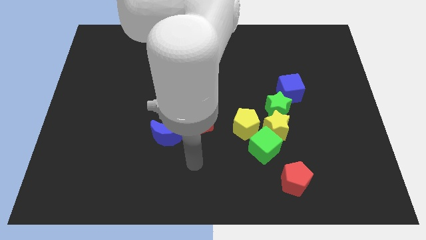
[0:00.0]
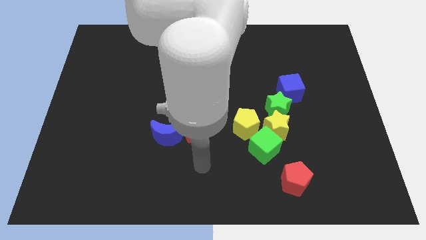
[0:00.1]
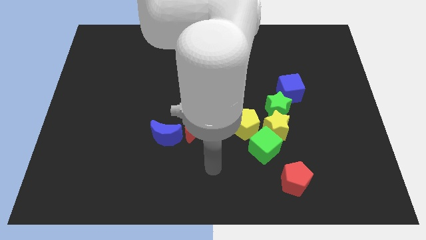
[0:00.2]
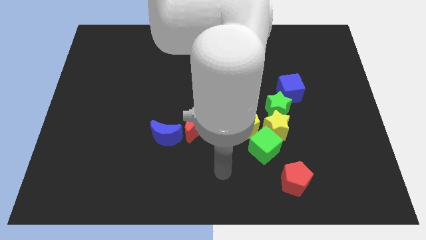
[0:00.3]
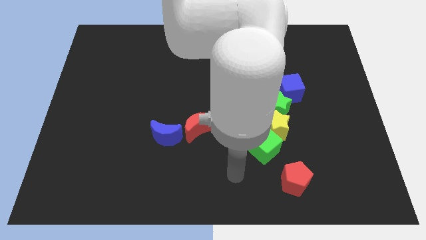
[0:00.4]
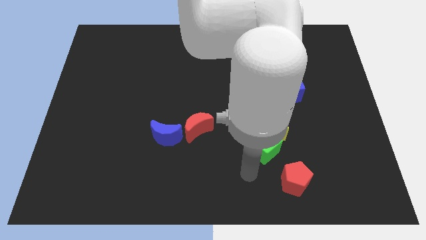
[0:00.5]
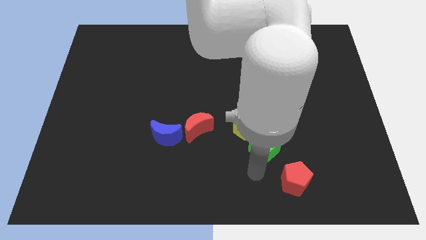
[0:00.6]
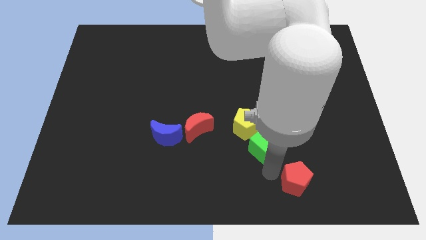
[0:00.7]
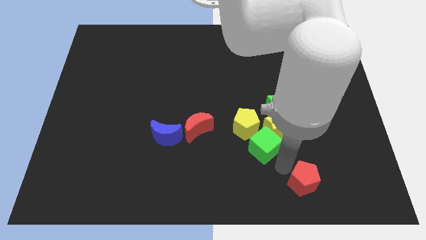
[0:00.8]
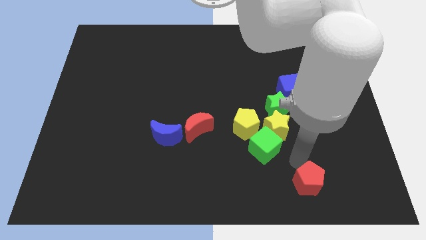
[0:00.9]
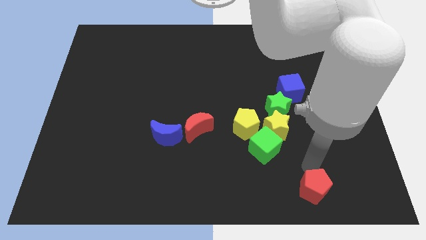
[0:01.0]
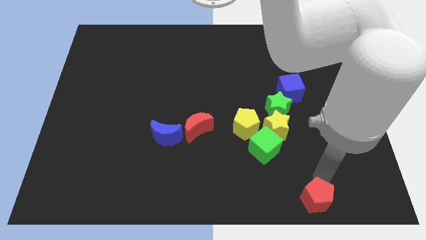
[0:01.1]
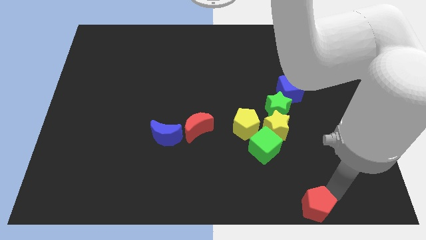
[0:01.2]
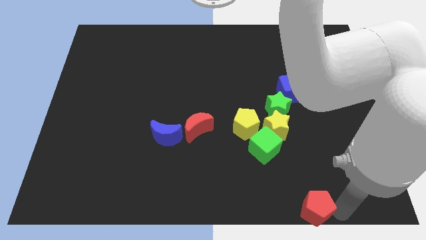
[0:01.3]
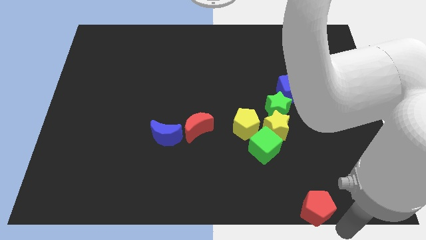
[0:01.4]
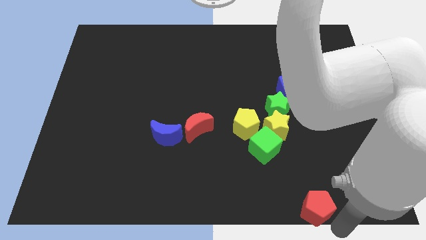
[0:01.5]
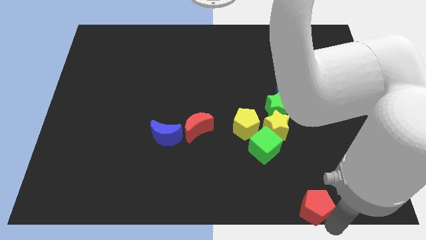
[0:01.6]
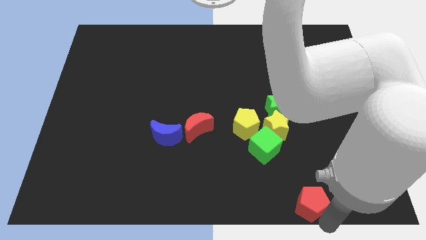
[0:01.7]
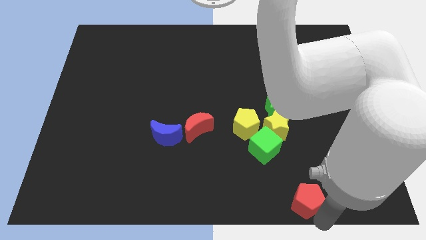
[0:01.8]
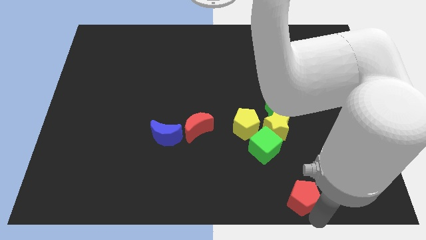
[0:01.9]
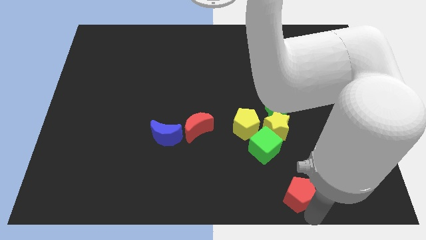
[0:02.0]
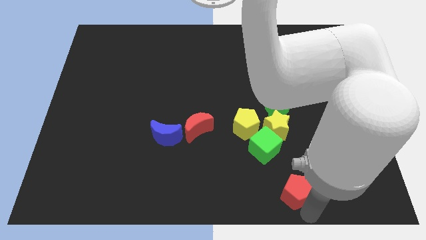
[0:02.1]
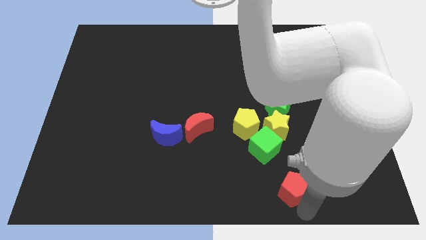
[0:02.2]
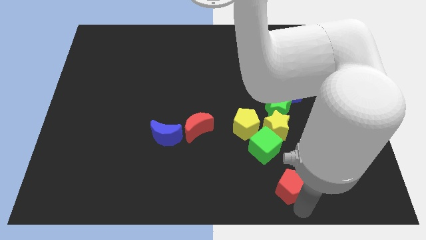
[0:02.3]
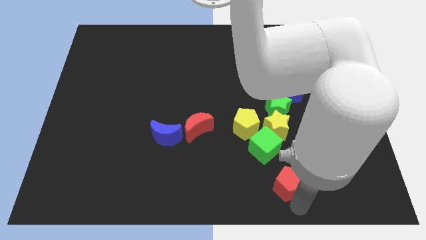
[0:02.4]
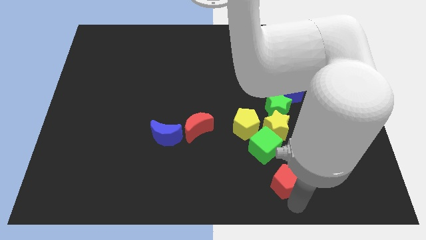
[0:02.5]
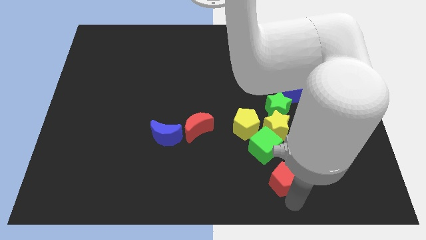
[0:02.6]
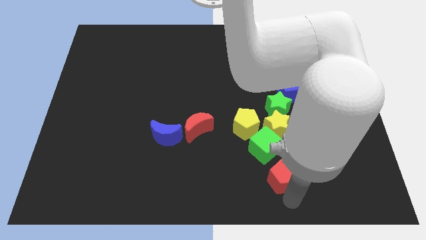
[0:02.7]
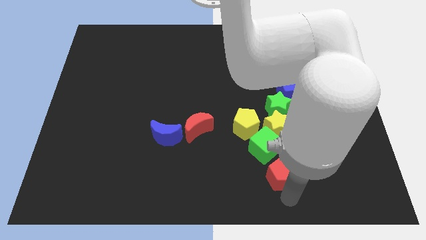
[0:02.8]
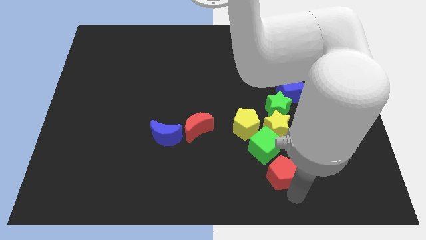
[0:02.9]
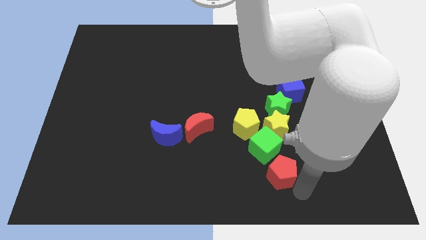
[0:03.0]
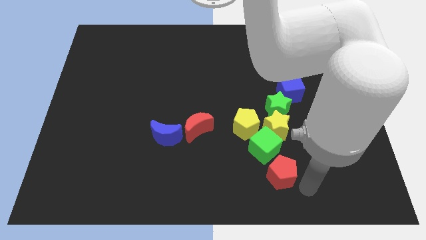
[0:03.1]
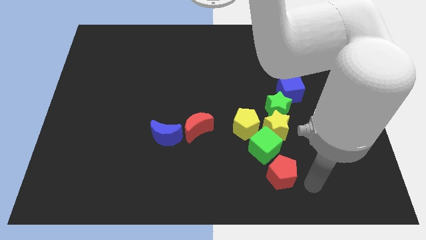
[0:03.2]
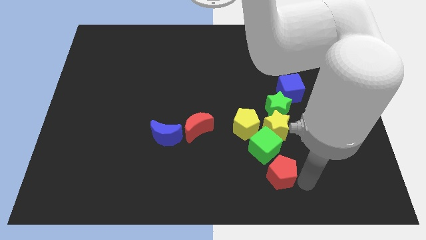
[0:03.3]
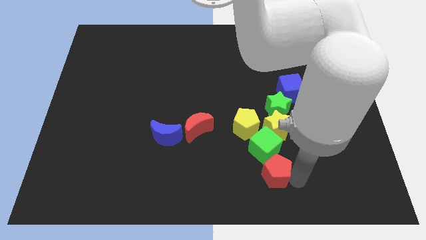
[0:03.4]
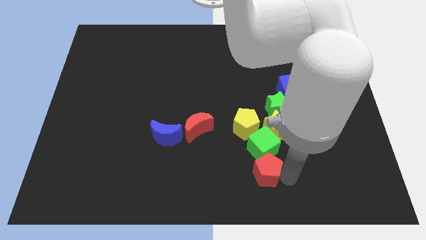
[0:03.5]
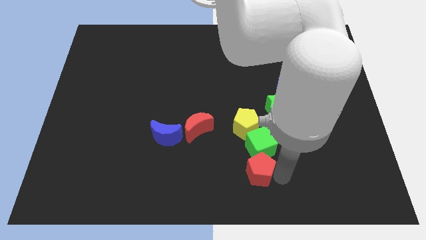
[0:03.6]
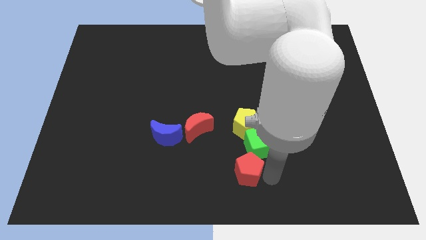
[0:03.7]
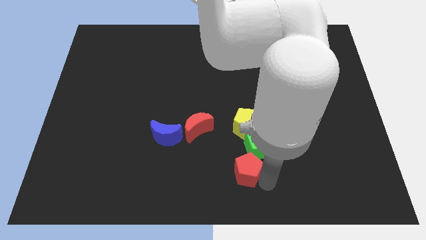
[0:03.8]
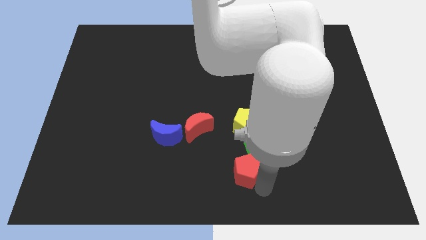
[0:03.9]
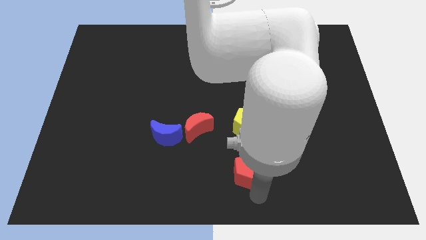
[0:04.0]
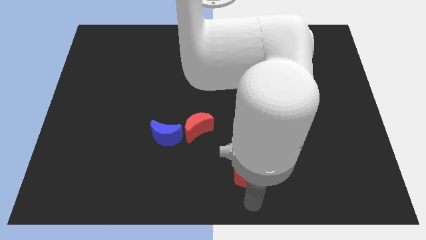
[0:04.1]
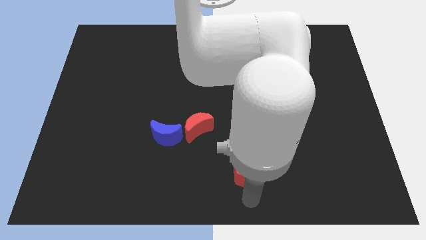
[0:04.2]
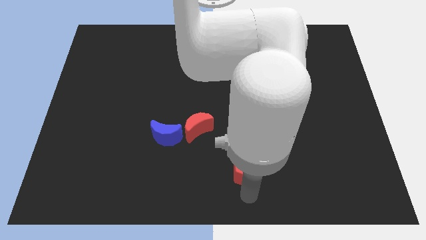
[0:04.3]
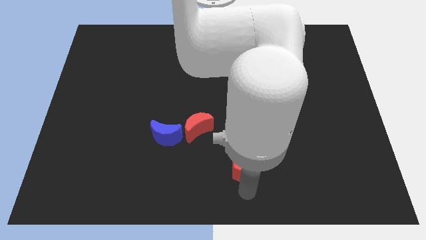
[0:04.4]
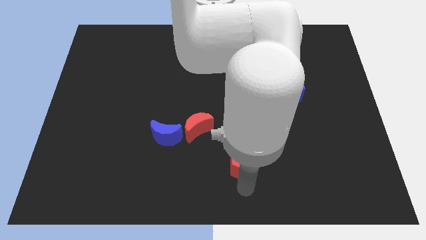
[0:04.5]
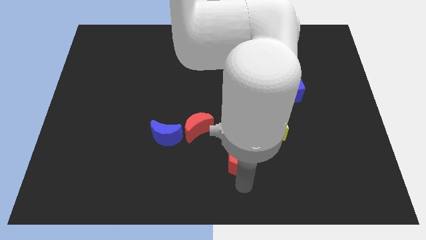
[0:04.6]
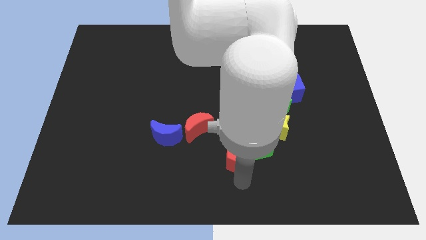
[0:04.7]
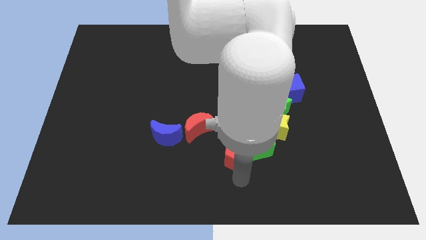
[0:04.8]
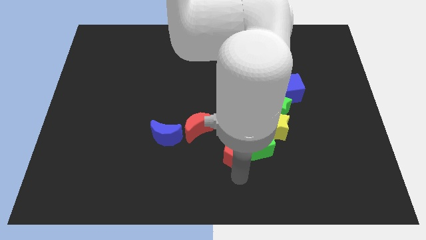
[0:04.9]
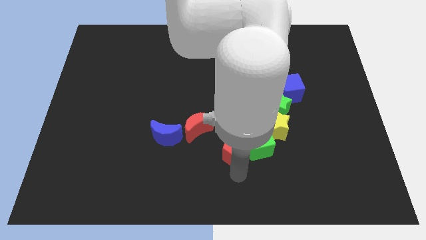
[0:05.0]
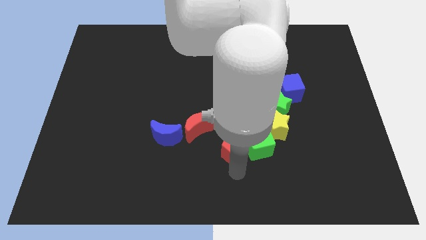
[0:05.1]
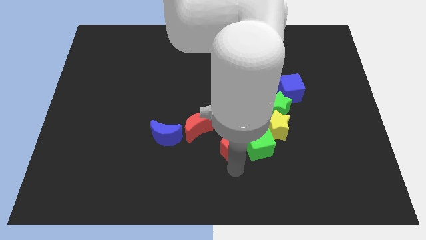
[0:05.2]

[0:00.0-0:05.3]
push the red pentagon close to the yellow pentagon

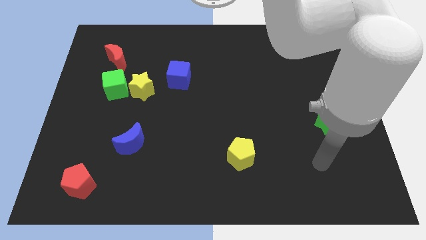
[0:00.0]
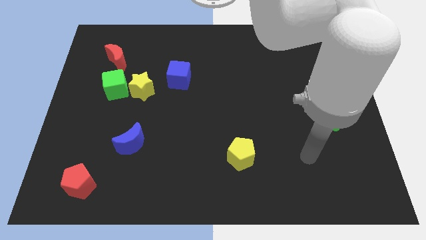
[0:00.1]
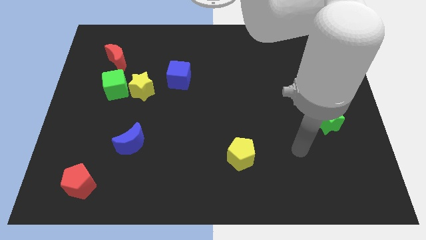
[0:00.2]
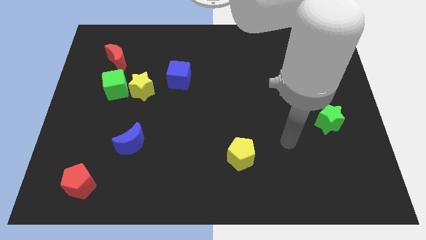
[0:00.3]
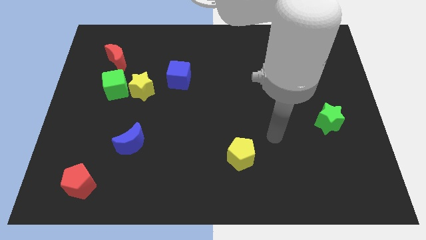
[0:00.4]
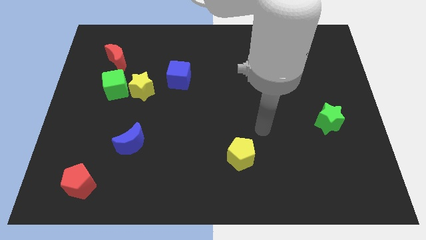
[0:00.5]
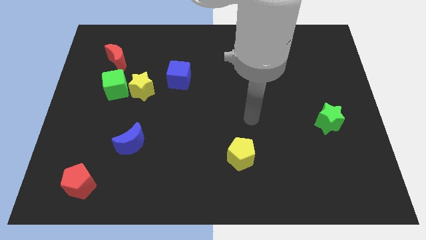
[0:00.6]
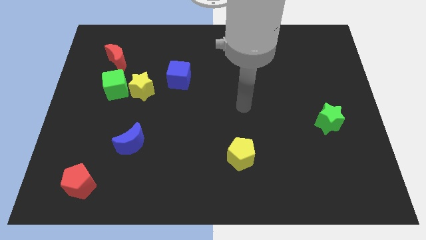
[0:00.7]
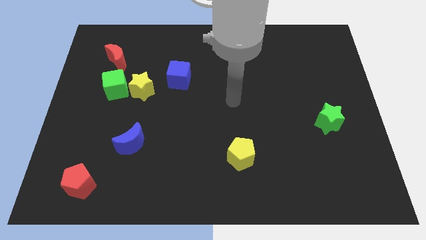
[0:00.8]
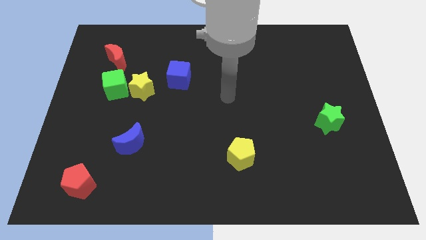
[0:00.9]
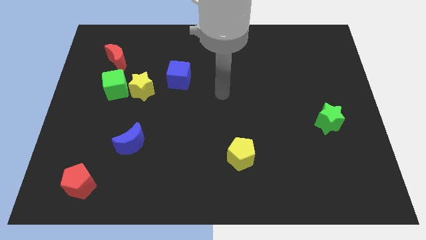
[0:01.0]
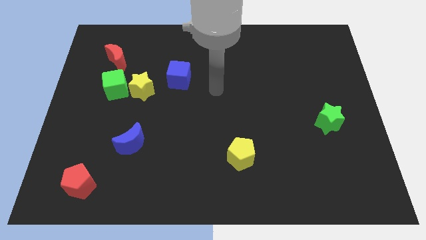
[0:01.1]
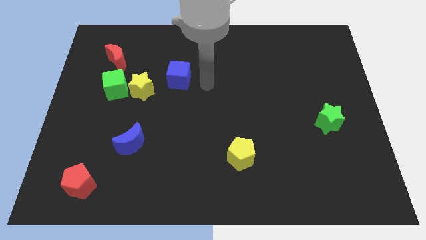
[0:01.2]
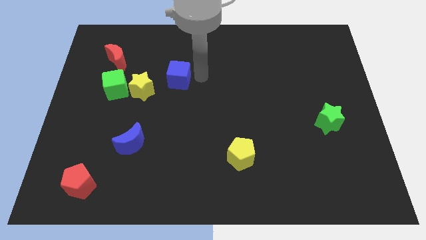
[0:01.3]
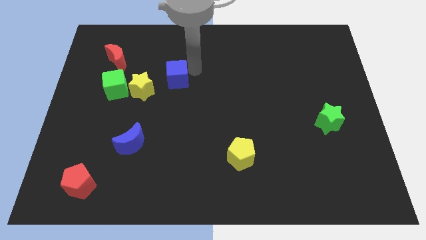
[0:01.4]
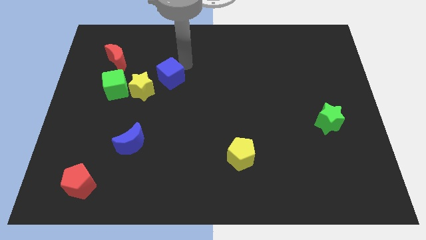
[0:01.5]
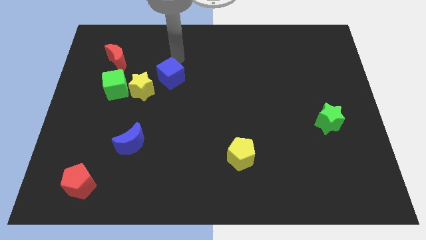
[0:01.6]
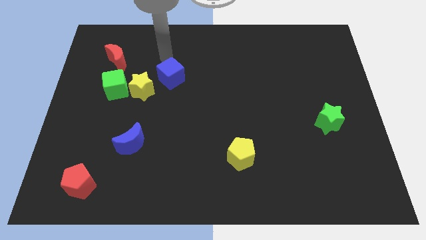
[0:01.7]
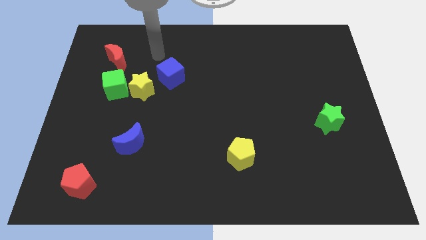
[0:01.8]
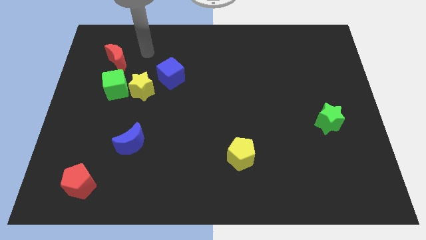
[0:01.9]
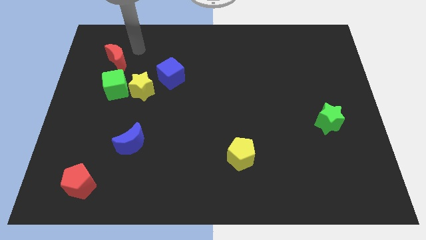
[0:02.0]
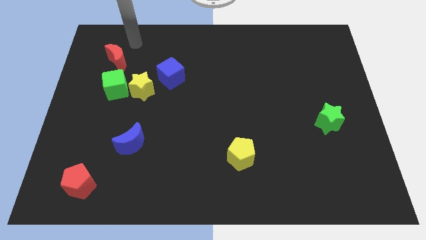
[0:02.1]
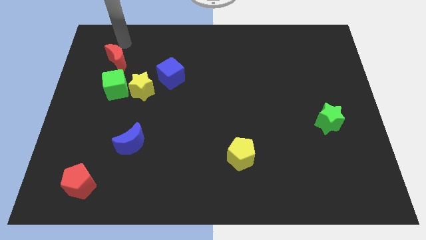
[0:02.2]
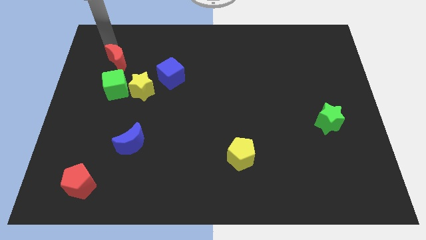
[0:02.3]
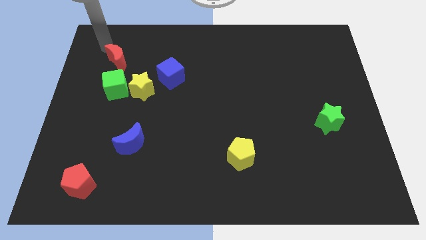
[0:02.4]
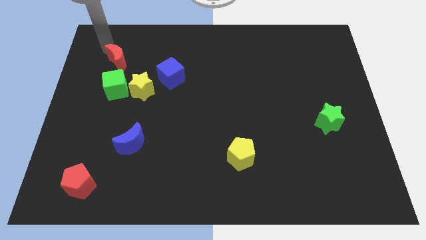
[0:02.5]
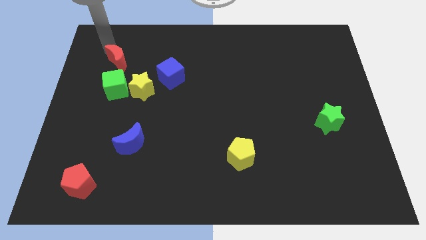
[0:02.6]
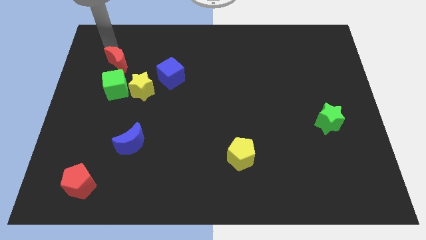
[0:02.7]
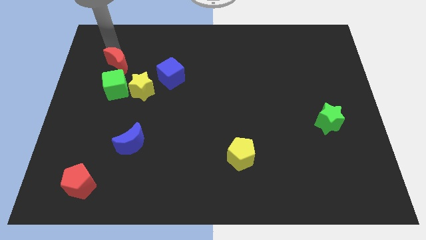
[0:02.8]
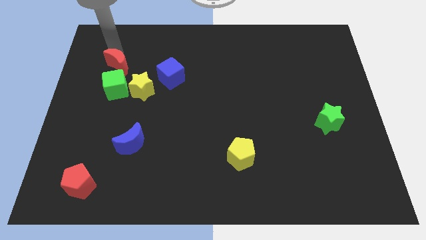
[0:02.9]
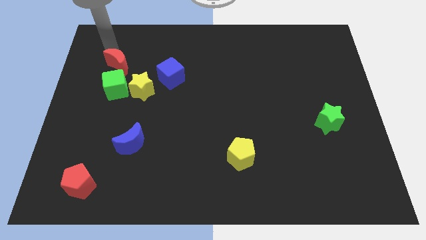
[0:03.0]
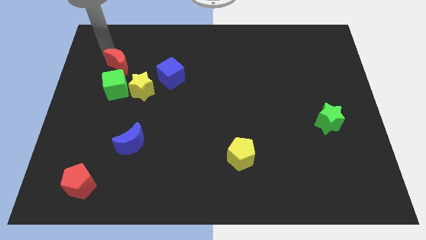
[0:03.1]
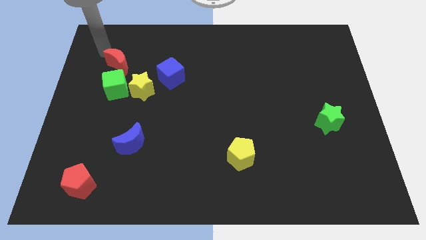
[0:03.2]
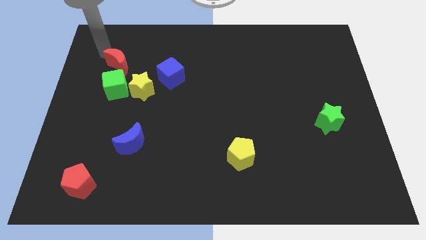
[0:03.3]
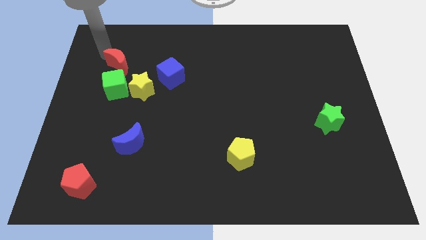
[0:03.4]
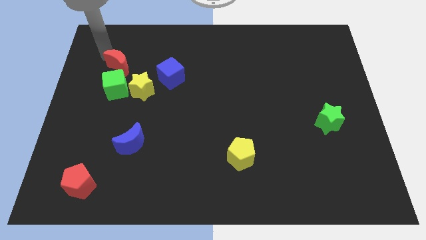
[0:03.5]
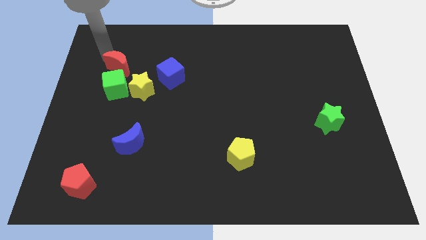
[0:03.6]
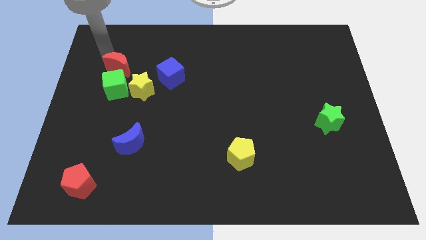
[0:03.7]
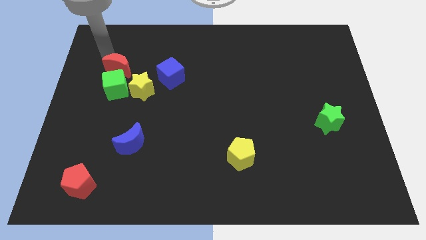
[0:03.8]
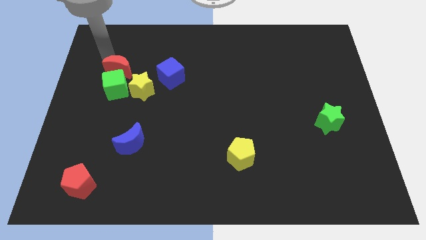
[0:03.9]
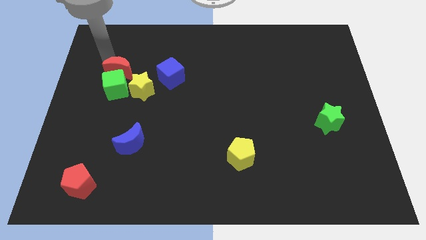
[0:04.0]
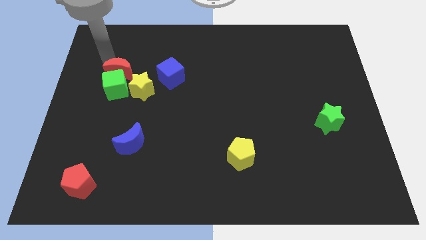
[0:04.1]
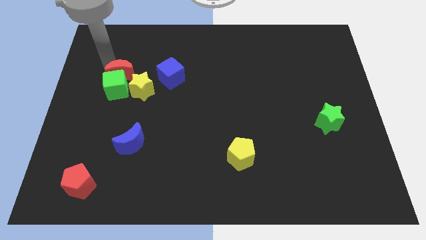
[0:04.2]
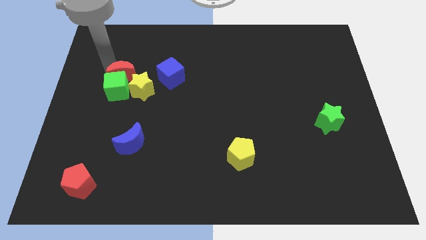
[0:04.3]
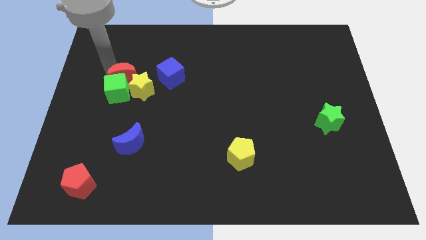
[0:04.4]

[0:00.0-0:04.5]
slide the red moon next to the yellow star
